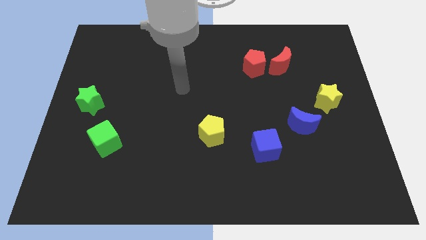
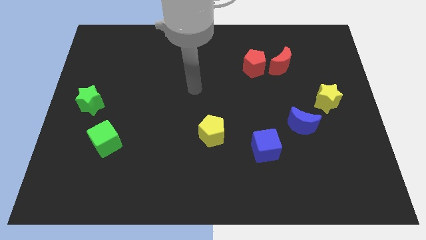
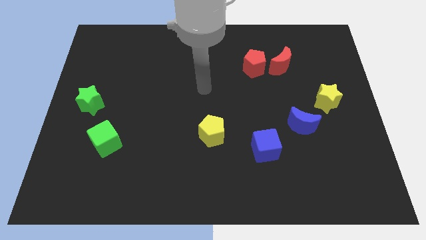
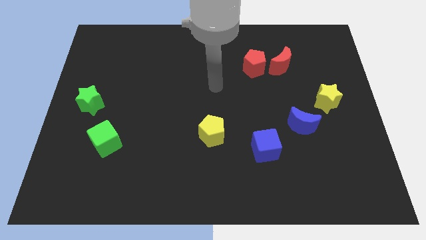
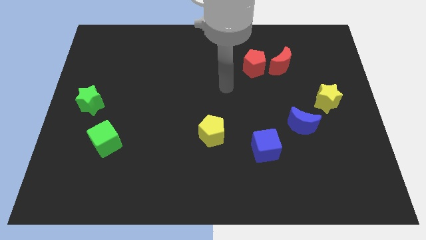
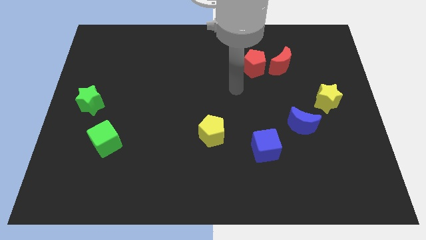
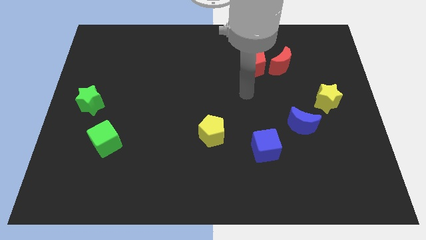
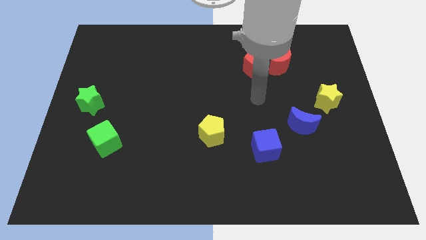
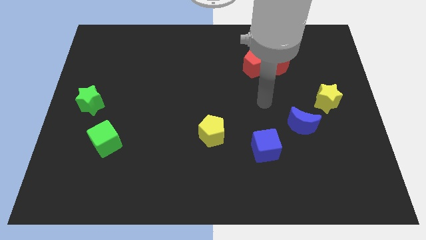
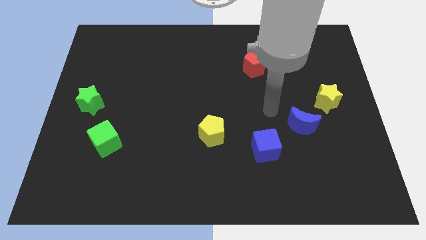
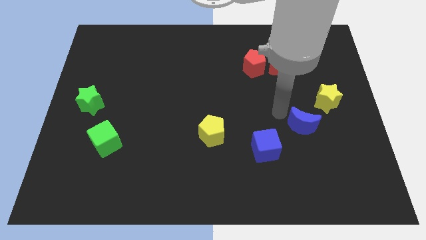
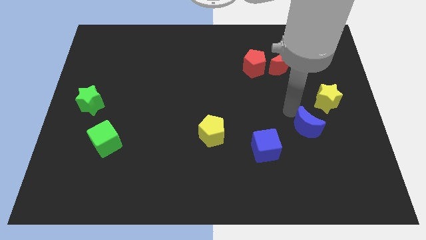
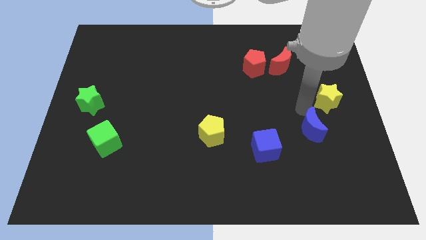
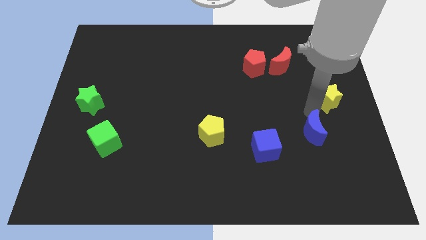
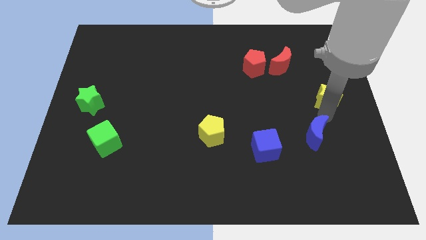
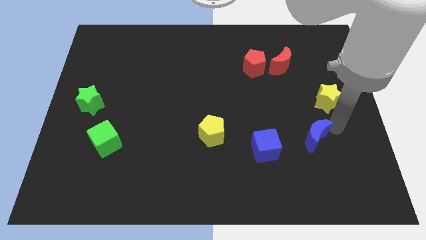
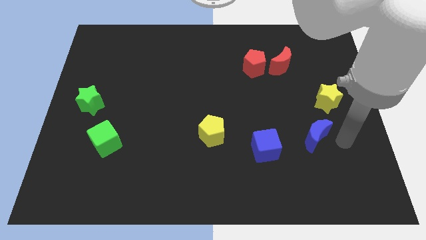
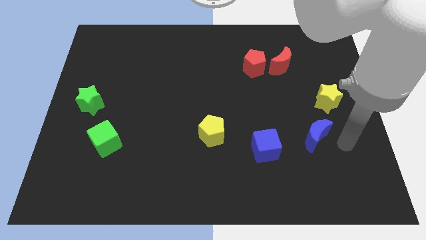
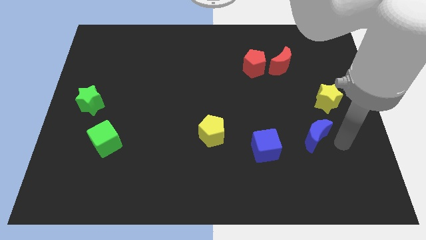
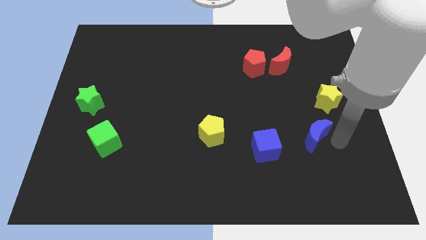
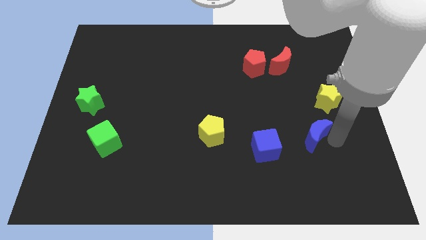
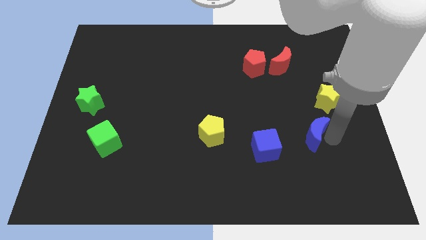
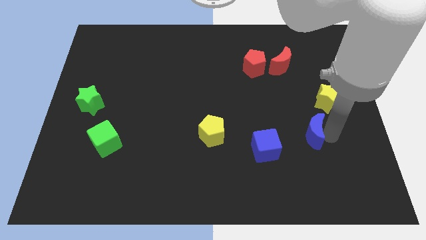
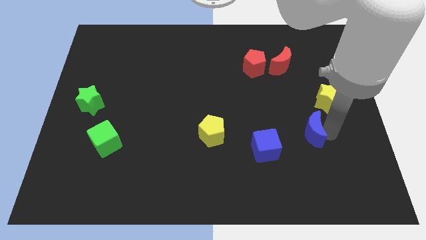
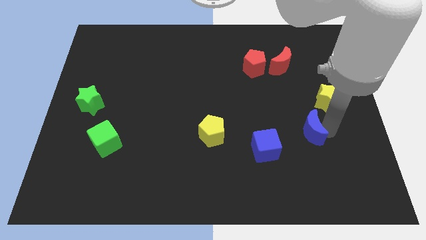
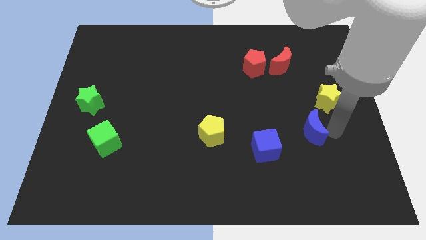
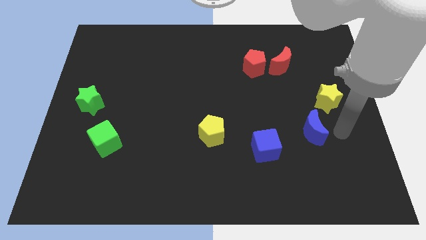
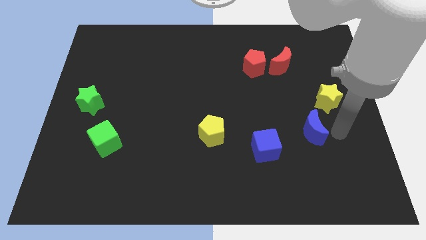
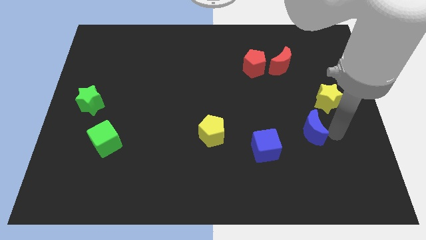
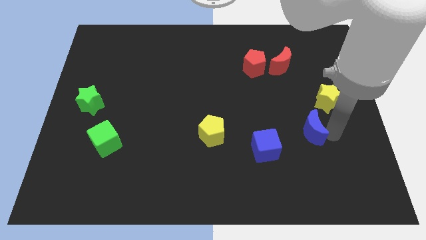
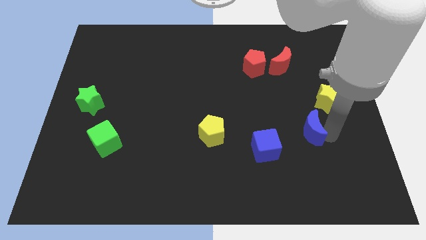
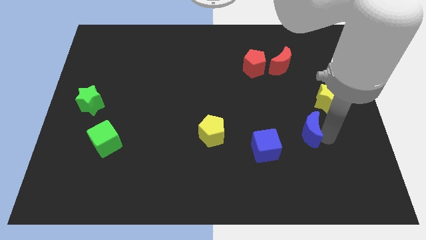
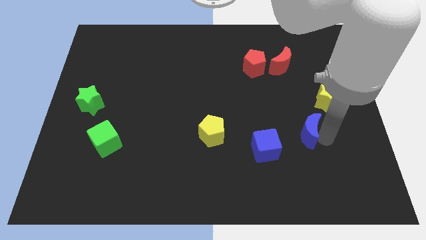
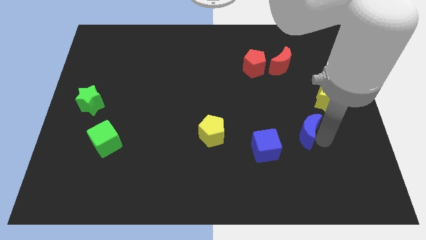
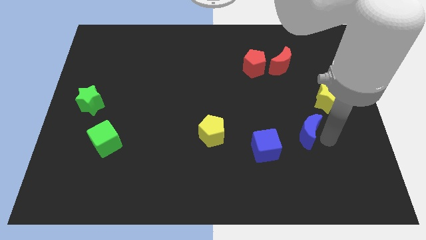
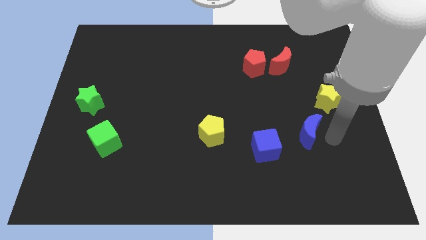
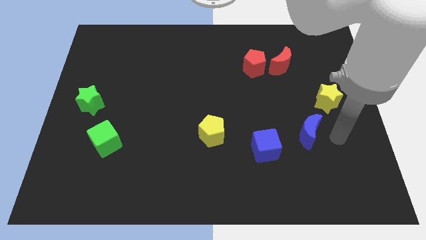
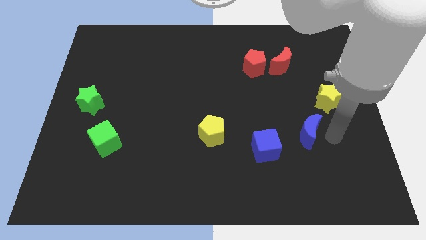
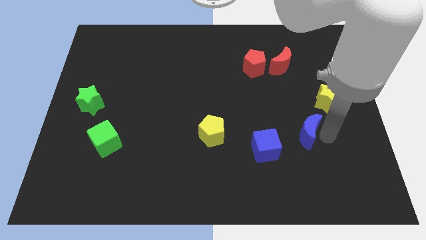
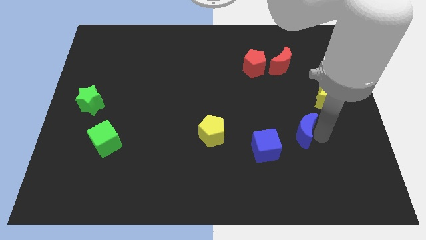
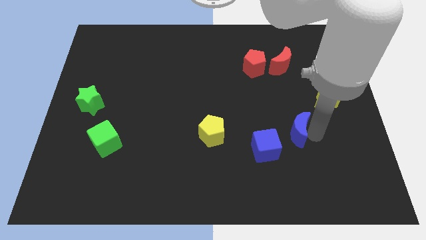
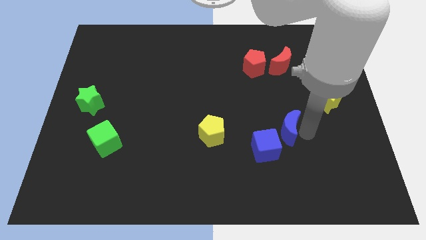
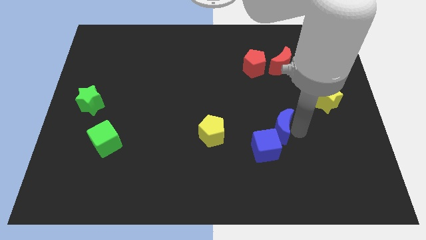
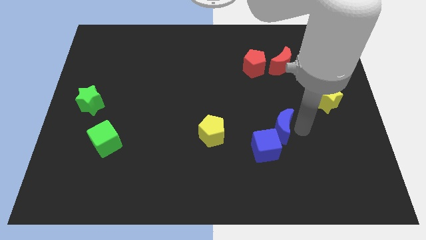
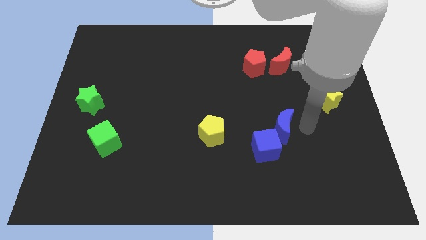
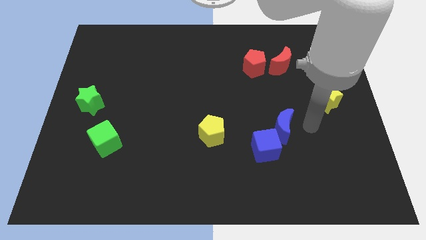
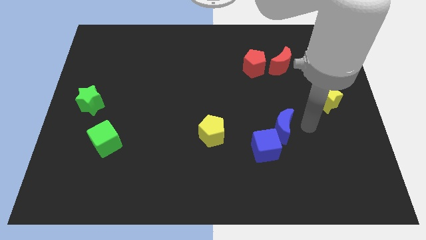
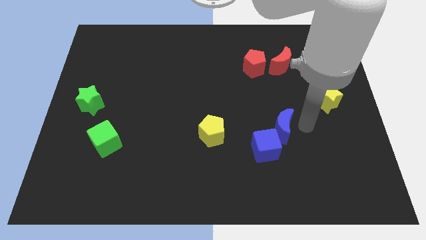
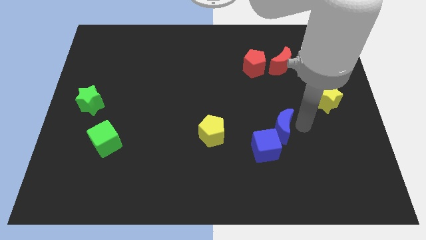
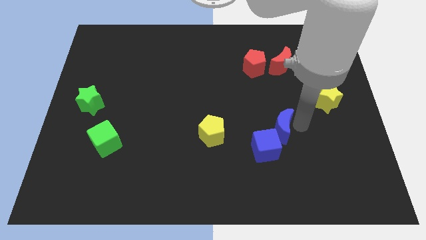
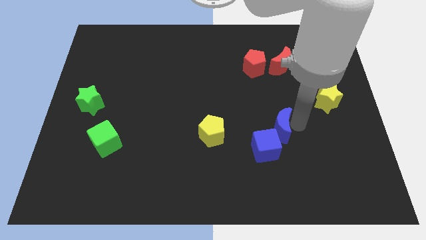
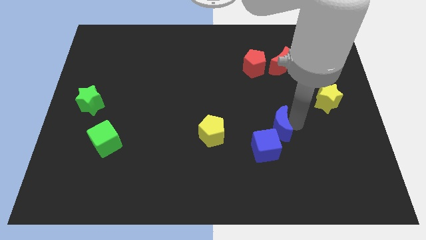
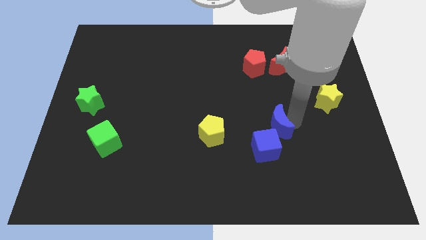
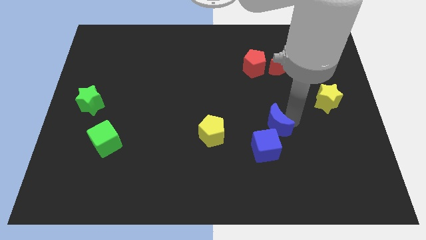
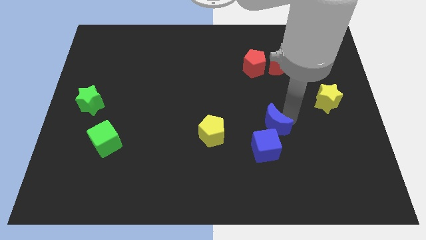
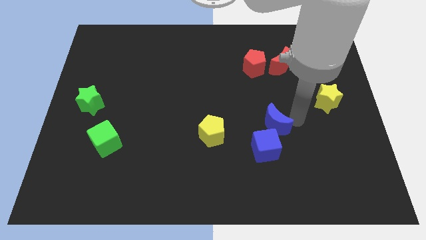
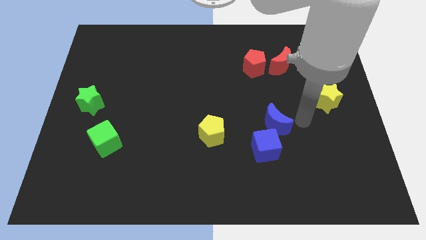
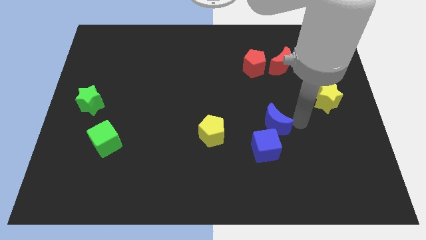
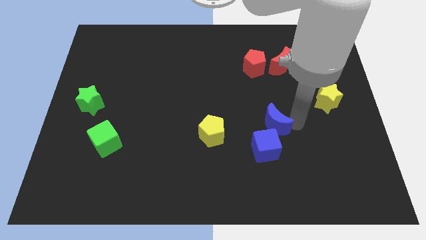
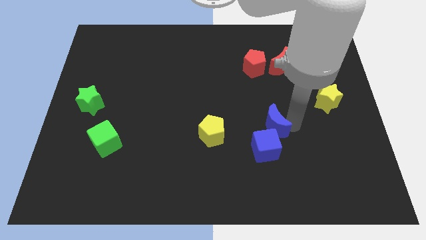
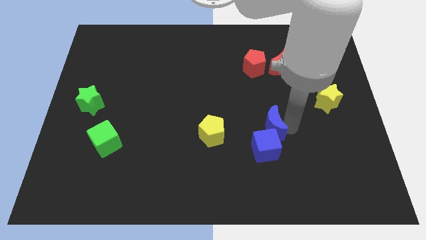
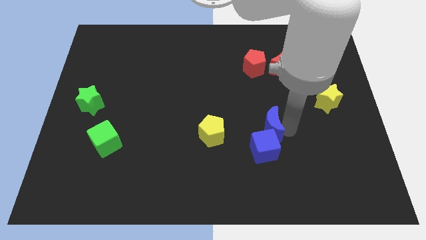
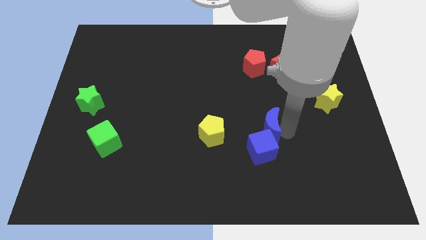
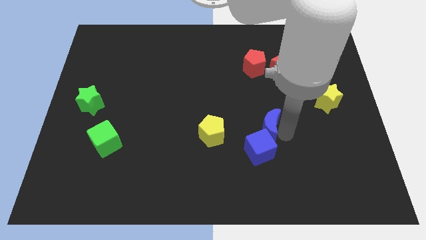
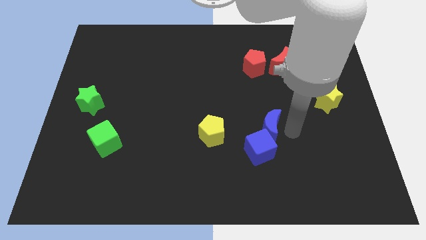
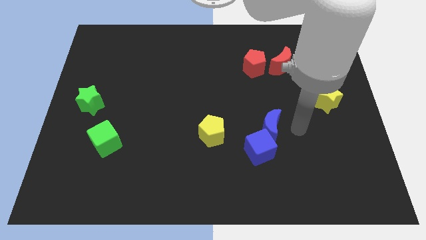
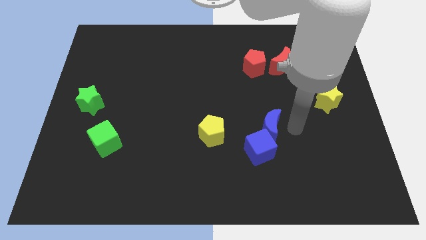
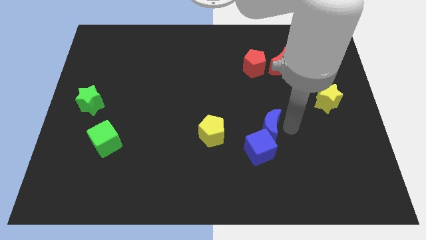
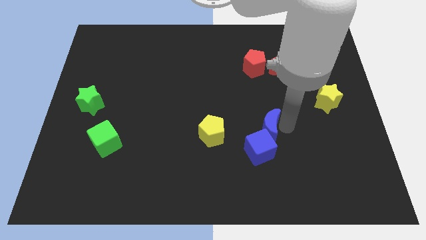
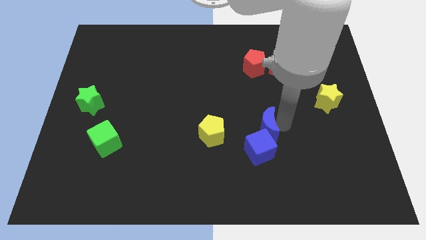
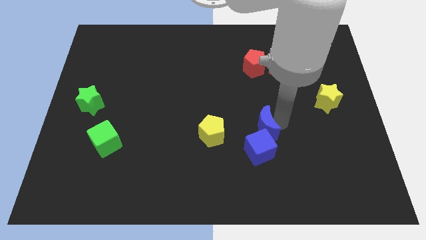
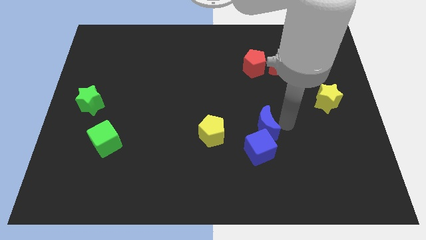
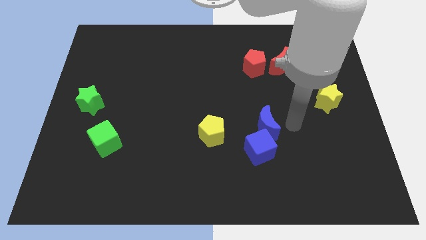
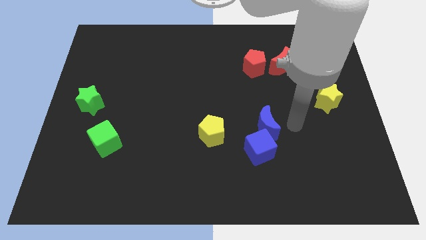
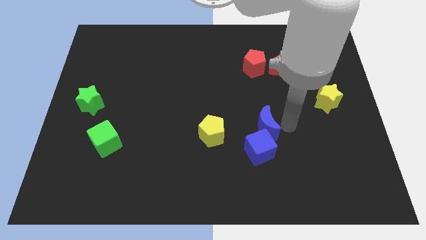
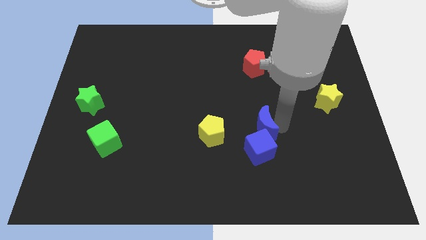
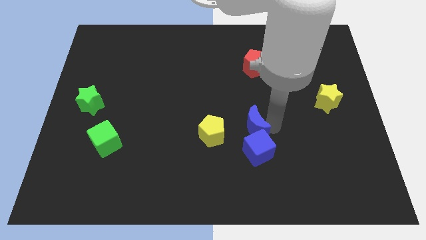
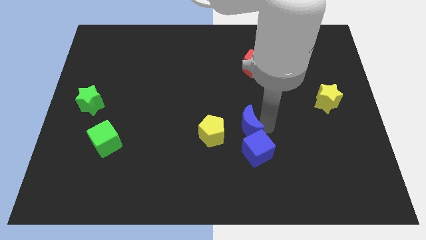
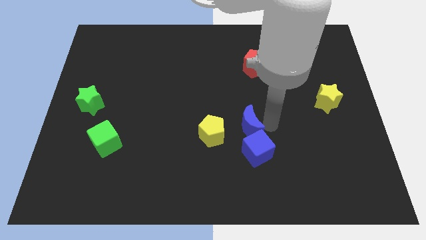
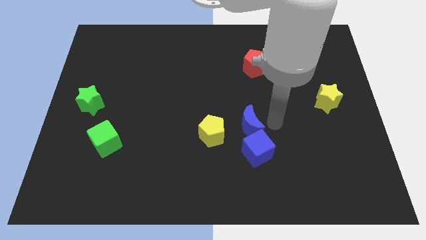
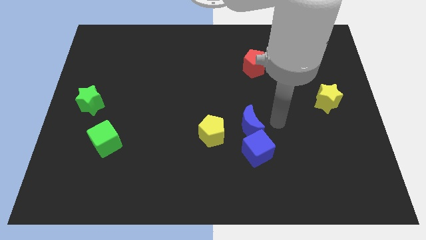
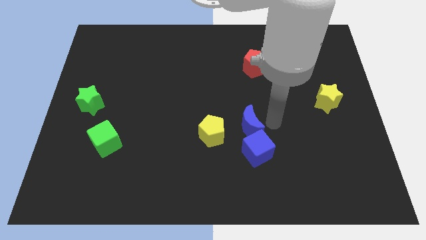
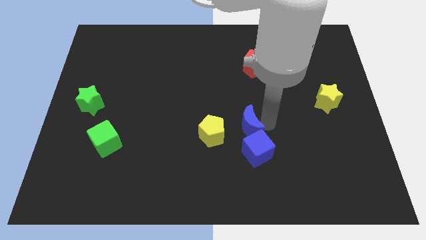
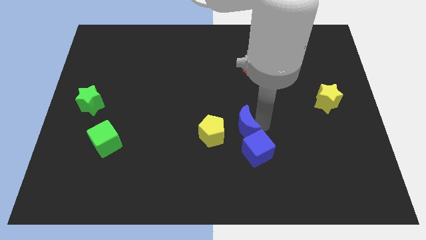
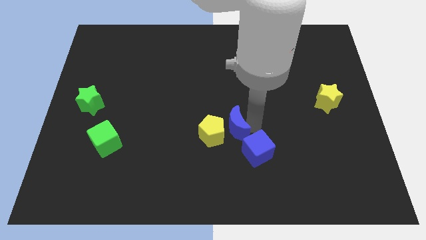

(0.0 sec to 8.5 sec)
put the blue moon to the yellow pentagon
